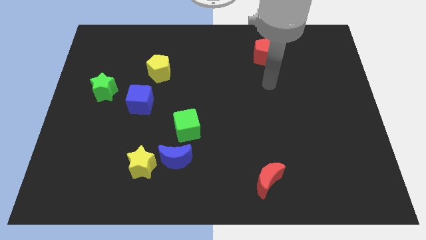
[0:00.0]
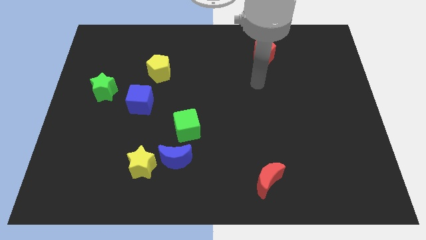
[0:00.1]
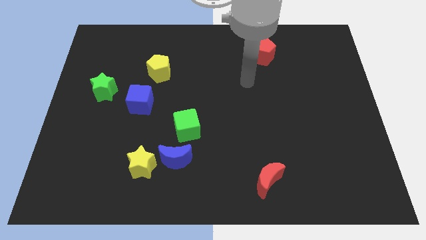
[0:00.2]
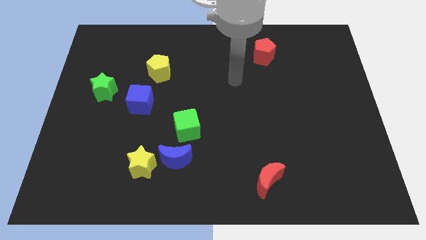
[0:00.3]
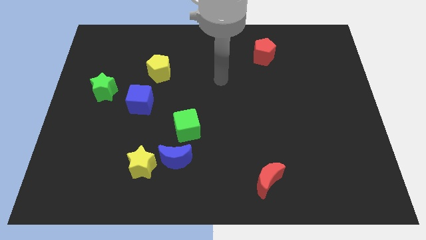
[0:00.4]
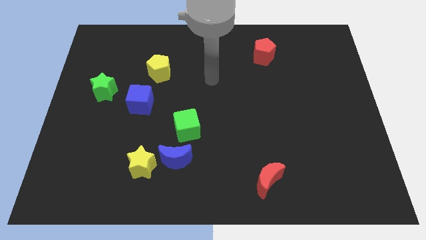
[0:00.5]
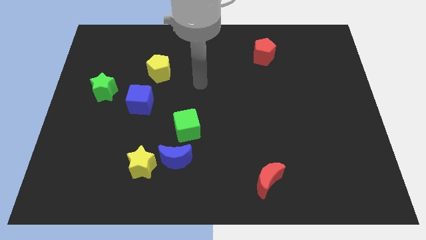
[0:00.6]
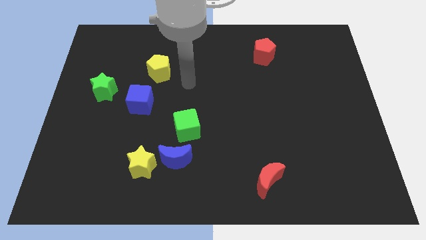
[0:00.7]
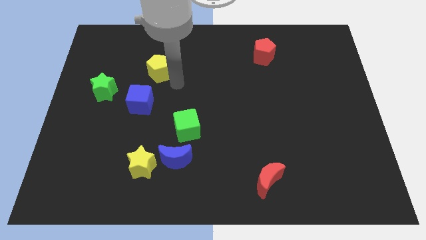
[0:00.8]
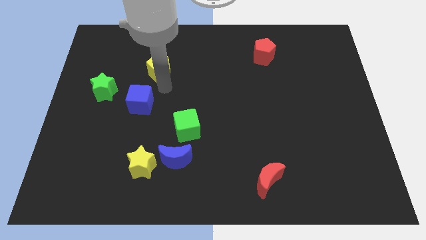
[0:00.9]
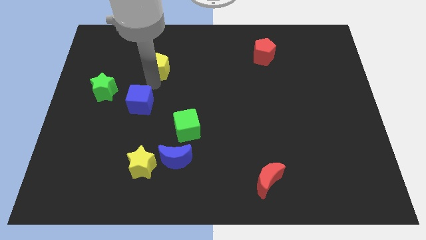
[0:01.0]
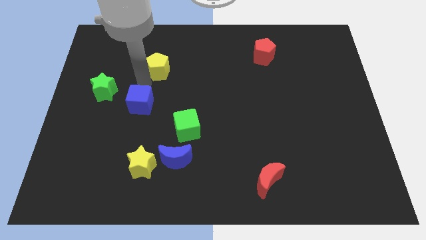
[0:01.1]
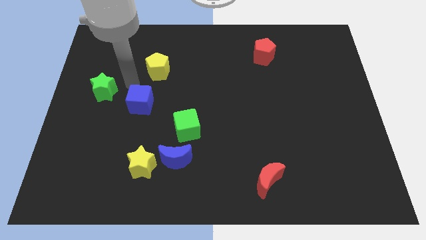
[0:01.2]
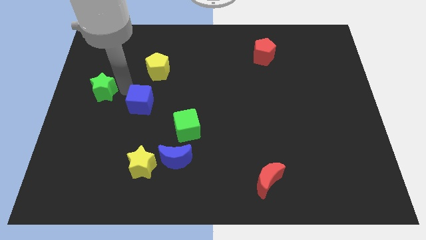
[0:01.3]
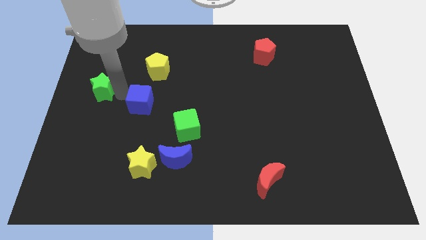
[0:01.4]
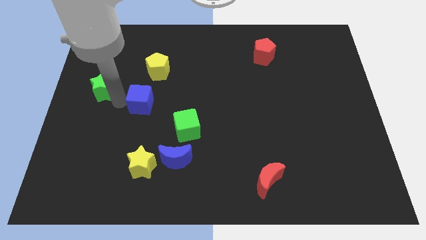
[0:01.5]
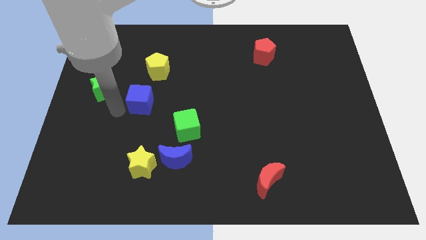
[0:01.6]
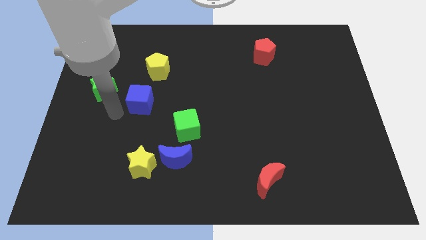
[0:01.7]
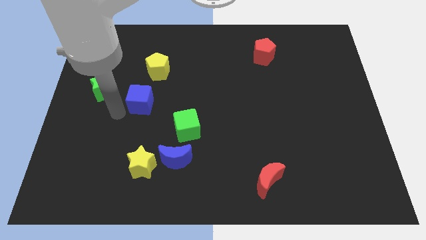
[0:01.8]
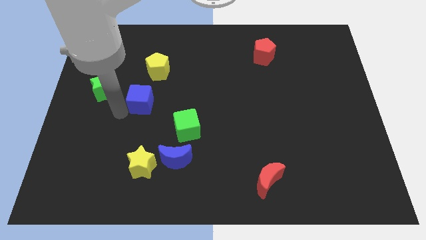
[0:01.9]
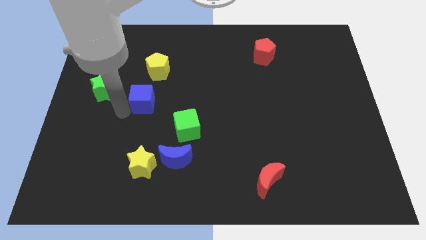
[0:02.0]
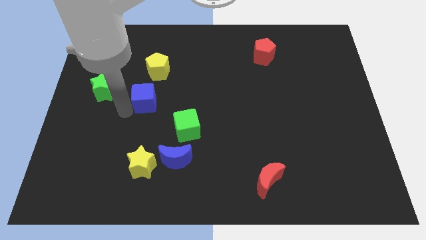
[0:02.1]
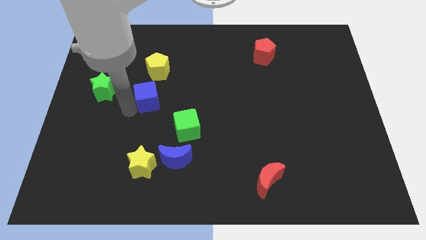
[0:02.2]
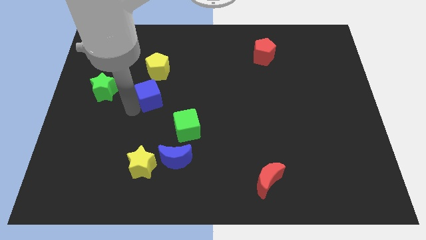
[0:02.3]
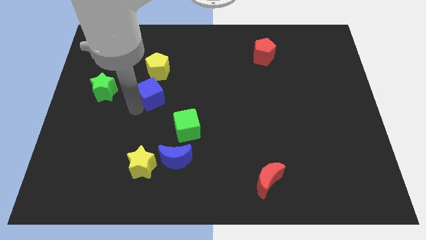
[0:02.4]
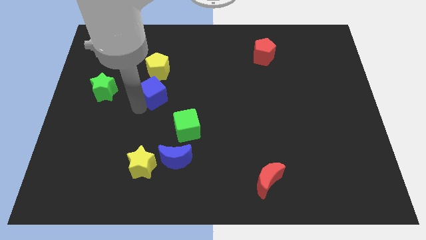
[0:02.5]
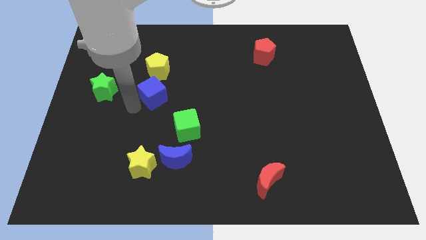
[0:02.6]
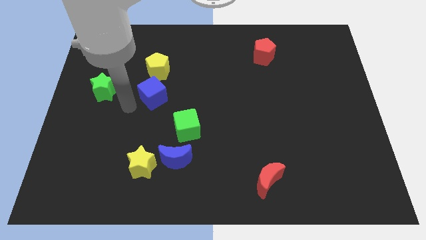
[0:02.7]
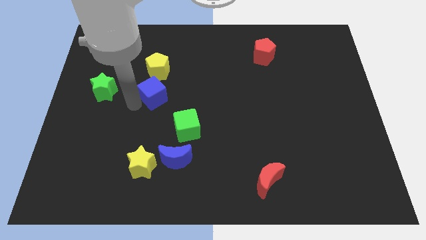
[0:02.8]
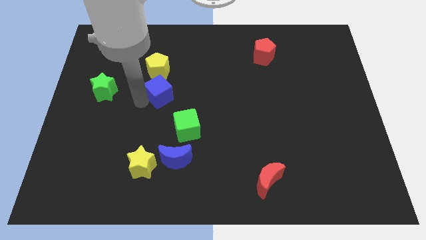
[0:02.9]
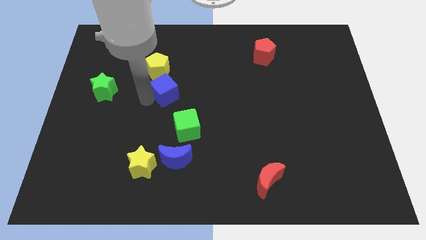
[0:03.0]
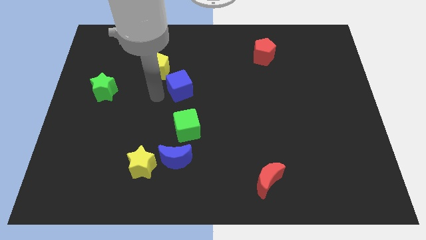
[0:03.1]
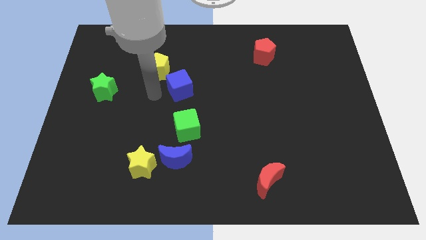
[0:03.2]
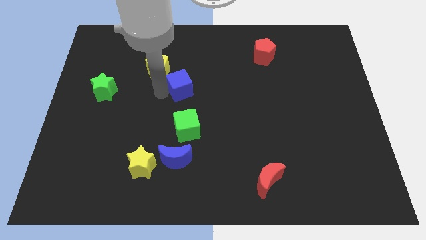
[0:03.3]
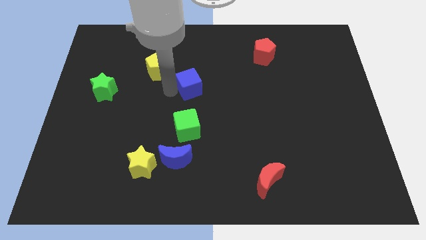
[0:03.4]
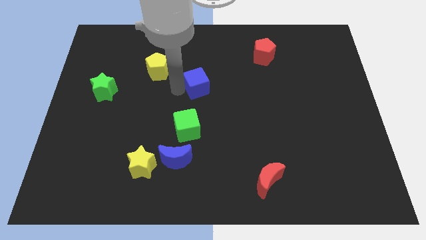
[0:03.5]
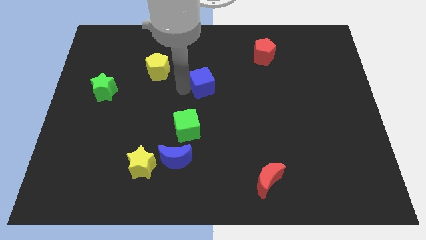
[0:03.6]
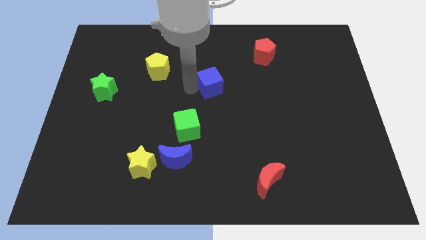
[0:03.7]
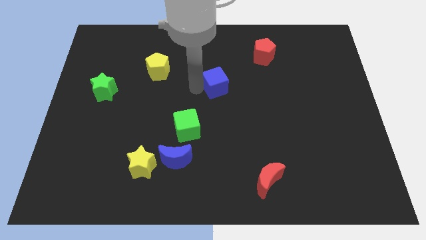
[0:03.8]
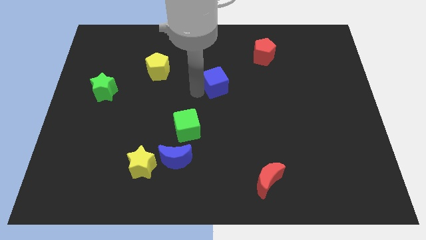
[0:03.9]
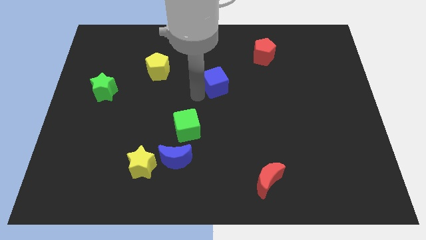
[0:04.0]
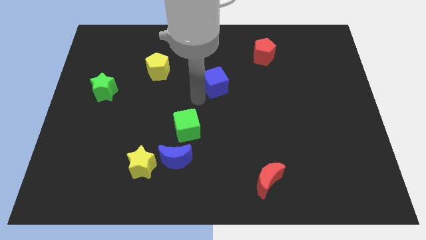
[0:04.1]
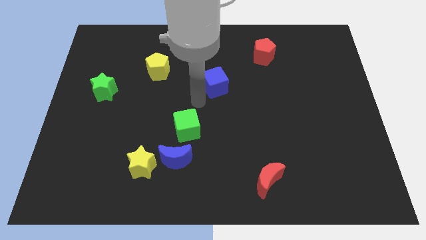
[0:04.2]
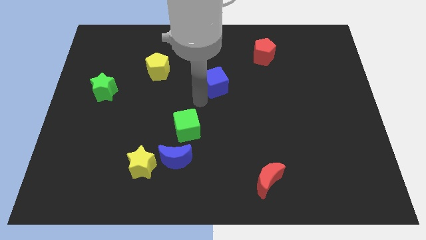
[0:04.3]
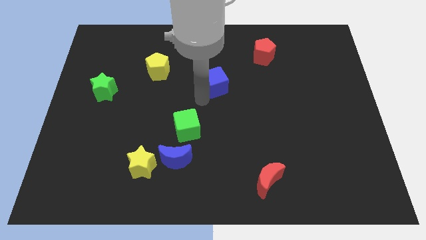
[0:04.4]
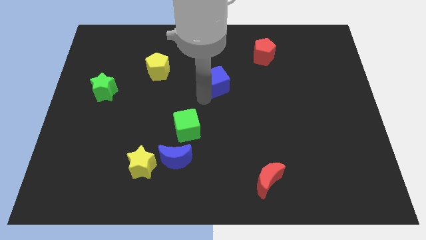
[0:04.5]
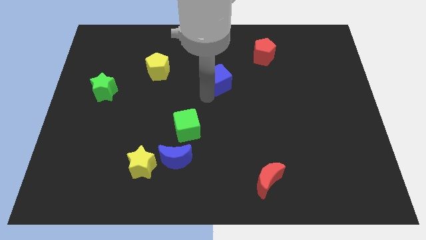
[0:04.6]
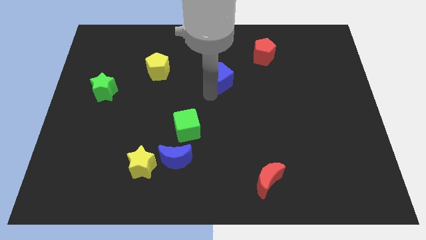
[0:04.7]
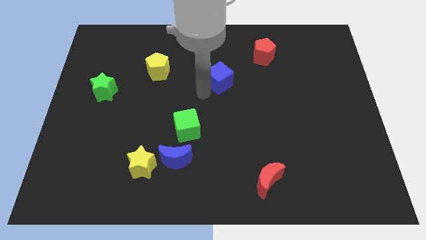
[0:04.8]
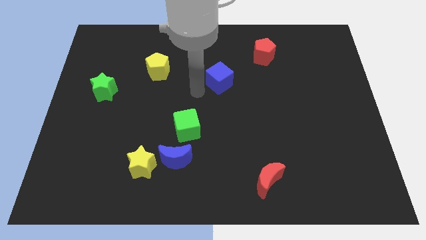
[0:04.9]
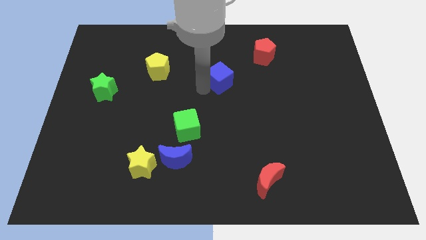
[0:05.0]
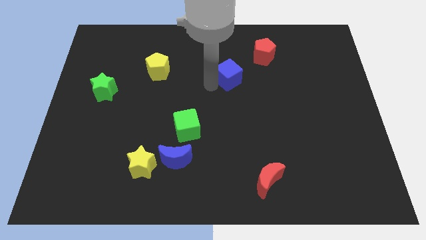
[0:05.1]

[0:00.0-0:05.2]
move the blue cube to the bottom left of the red pentagon

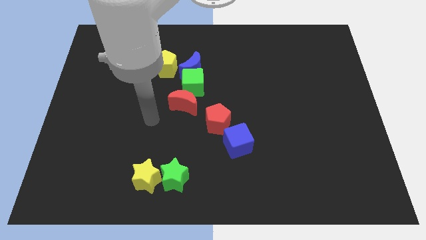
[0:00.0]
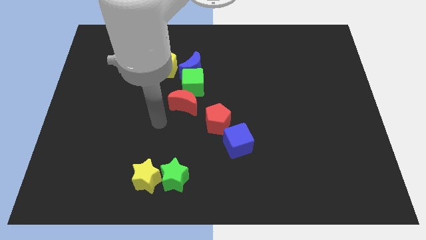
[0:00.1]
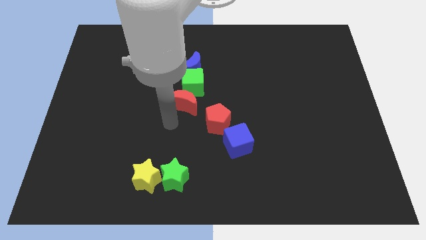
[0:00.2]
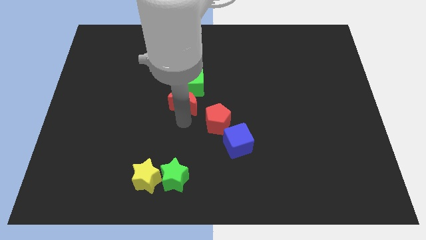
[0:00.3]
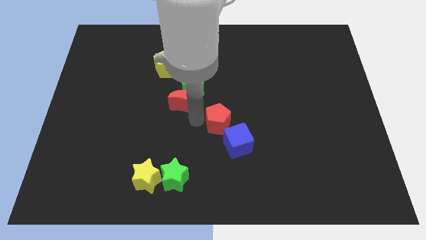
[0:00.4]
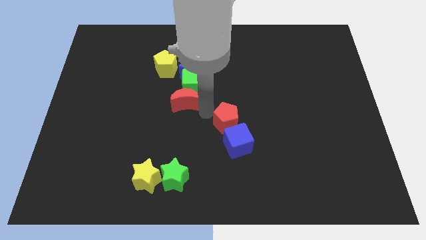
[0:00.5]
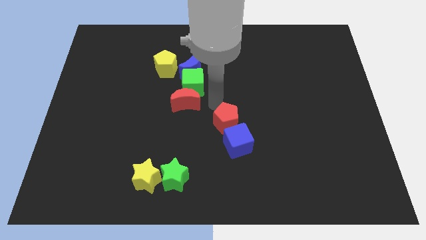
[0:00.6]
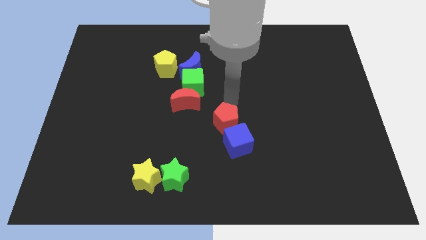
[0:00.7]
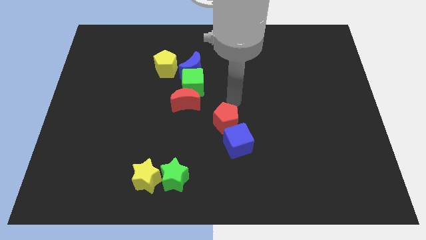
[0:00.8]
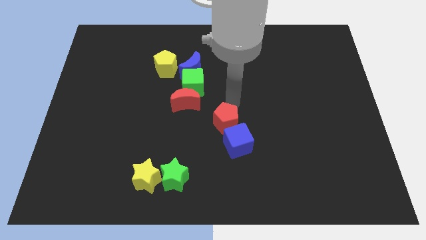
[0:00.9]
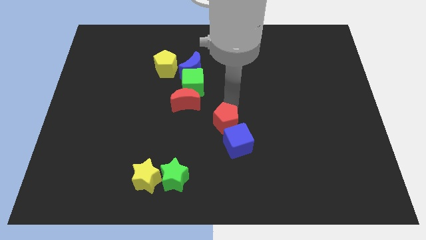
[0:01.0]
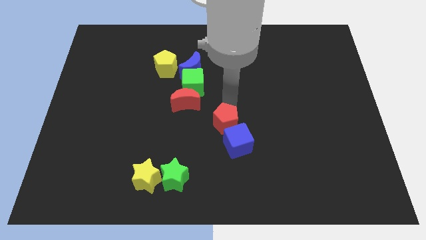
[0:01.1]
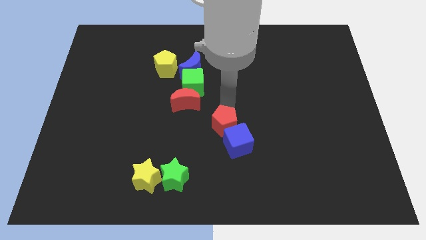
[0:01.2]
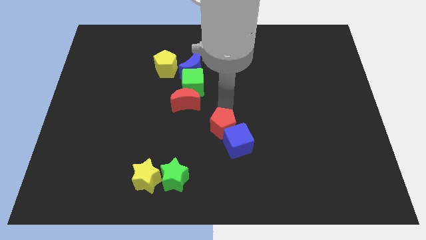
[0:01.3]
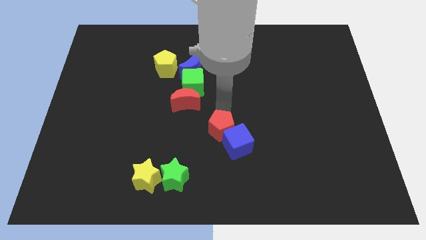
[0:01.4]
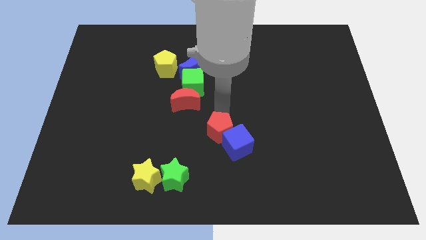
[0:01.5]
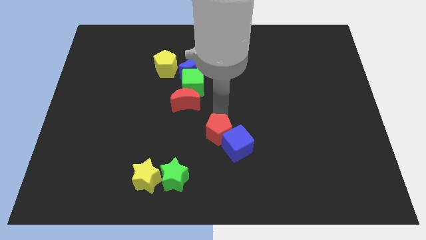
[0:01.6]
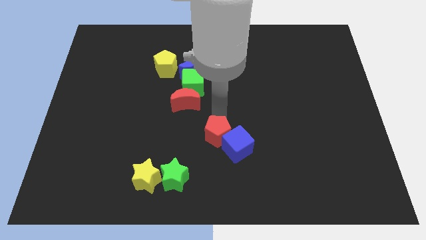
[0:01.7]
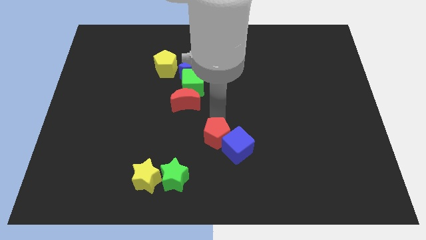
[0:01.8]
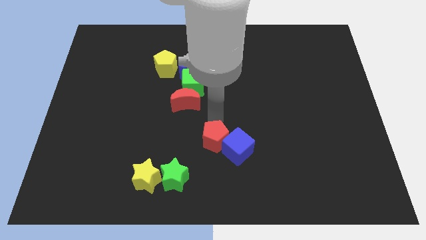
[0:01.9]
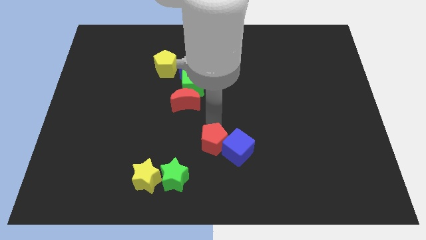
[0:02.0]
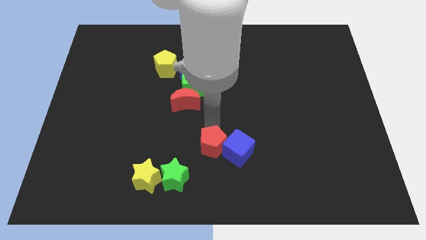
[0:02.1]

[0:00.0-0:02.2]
move the red pentagon to the bottom left of the blue cube

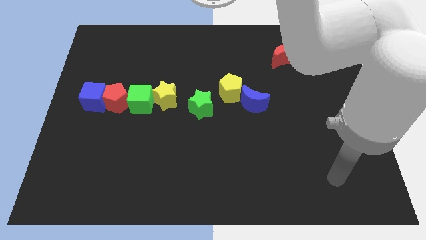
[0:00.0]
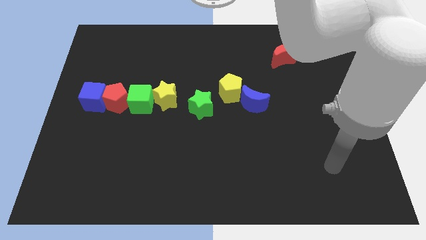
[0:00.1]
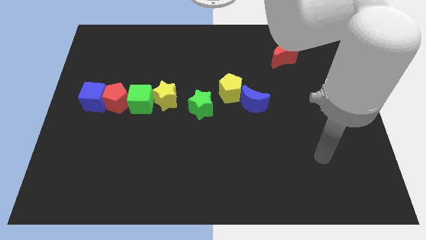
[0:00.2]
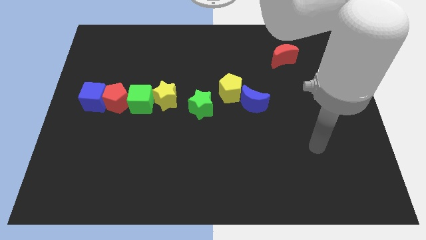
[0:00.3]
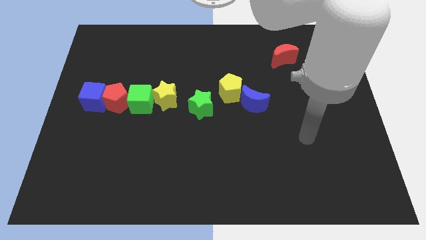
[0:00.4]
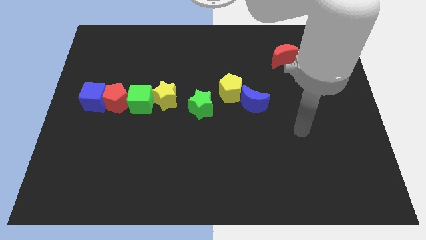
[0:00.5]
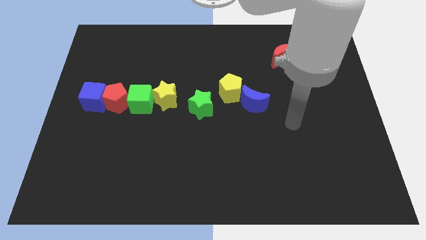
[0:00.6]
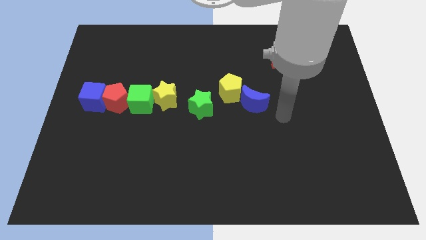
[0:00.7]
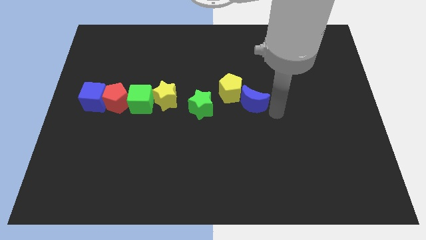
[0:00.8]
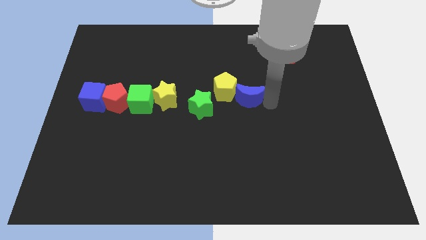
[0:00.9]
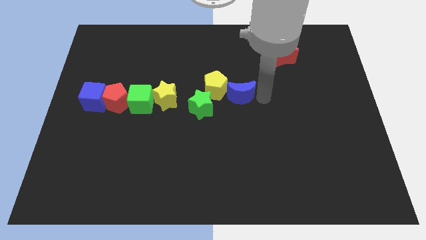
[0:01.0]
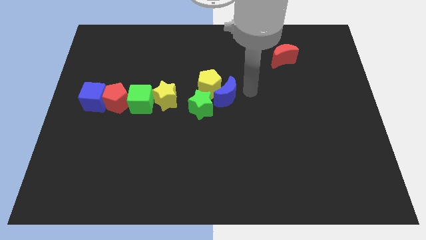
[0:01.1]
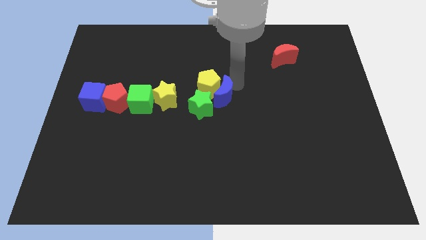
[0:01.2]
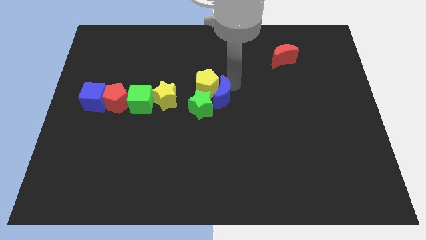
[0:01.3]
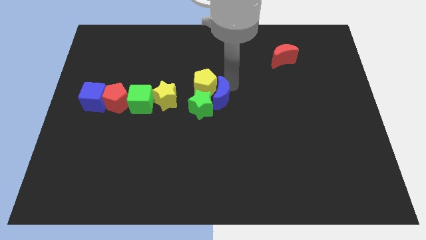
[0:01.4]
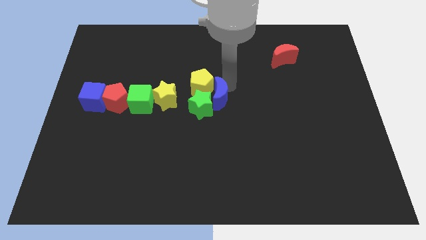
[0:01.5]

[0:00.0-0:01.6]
slide the yellow pentagon to the top left of the green star
